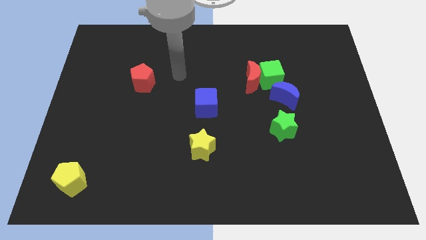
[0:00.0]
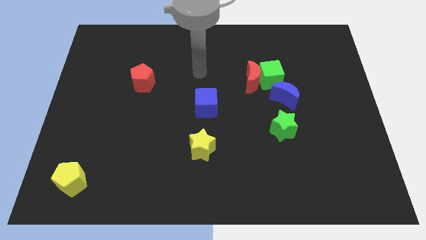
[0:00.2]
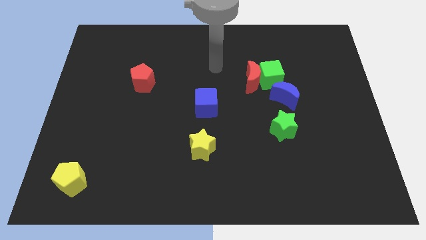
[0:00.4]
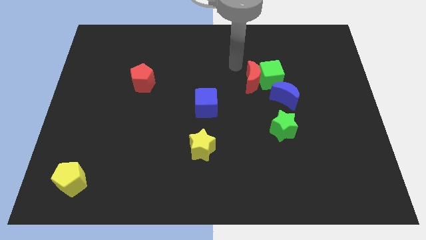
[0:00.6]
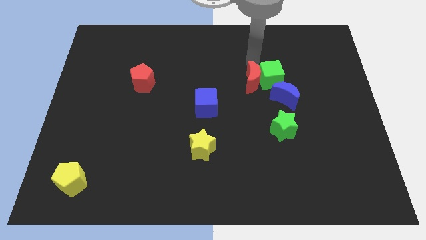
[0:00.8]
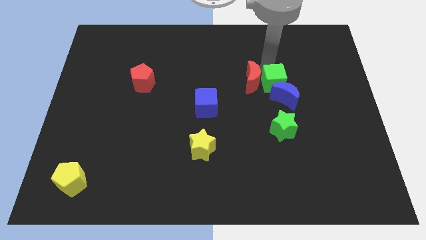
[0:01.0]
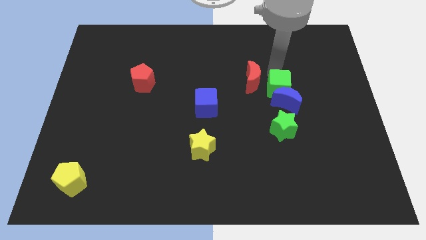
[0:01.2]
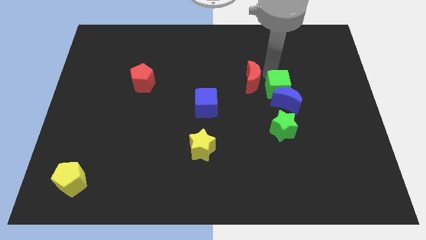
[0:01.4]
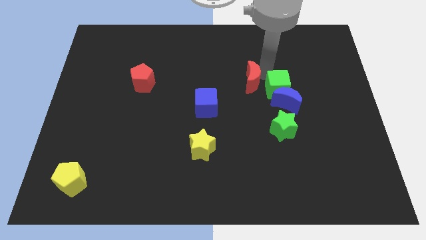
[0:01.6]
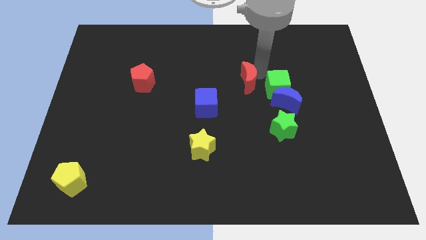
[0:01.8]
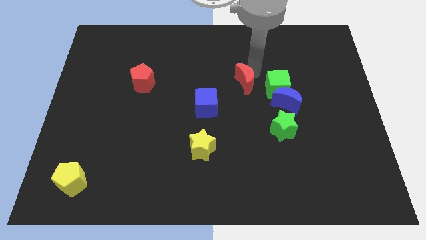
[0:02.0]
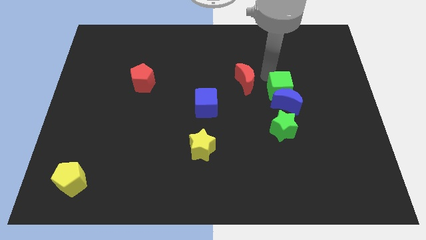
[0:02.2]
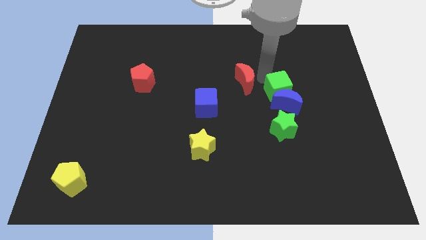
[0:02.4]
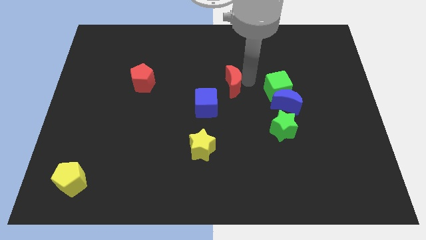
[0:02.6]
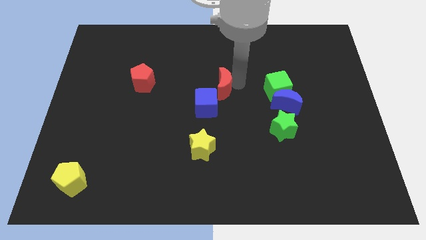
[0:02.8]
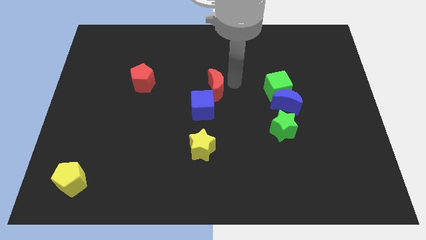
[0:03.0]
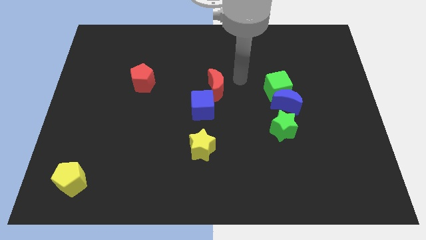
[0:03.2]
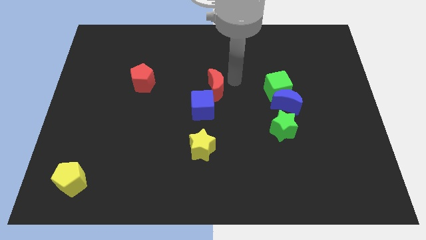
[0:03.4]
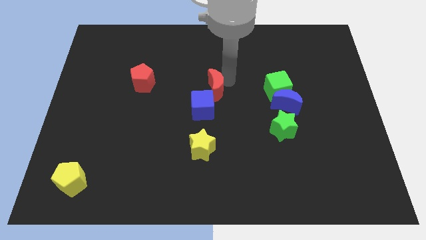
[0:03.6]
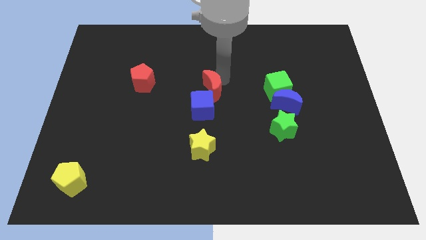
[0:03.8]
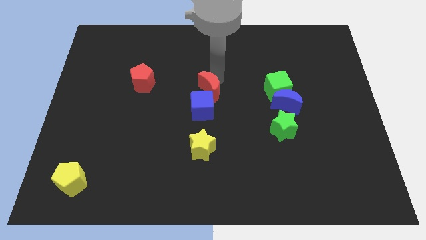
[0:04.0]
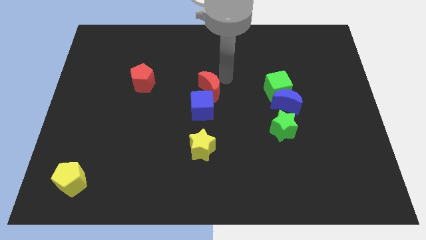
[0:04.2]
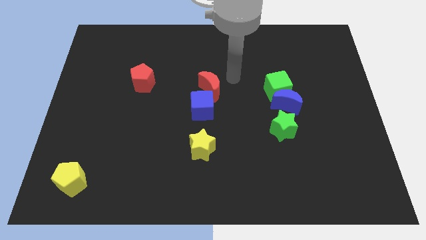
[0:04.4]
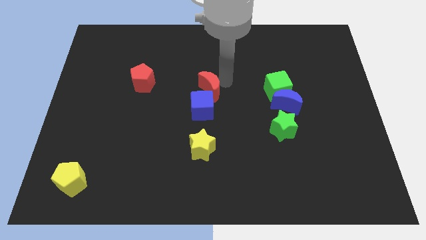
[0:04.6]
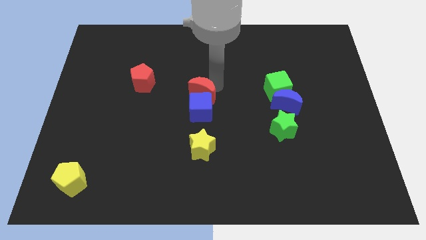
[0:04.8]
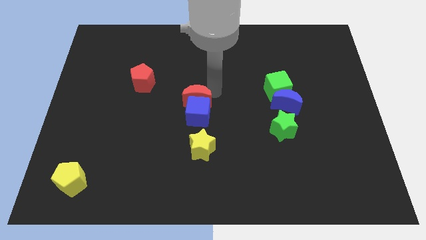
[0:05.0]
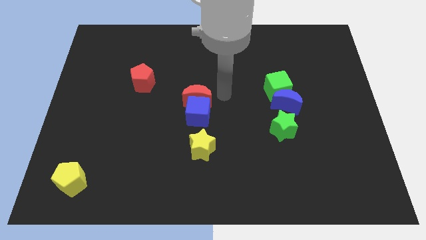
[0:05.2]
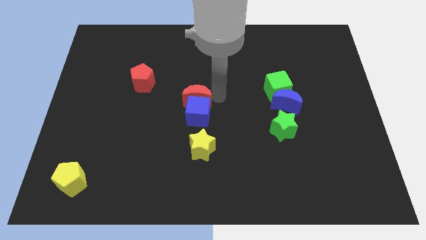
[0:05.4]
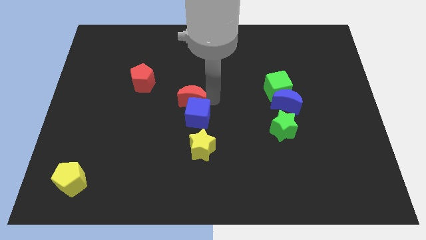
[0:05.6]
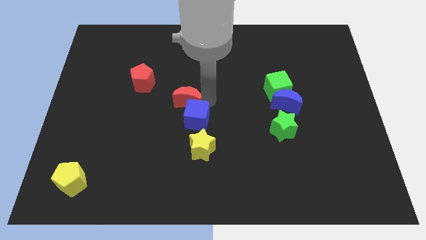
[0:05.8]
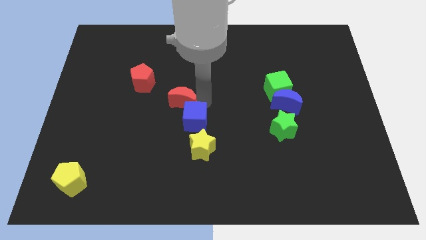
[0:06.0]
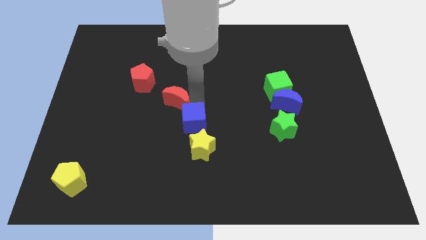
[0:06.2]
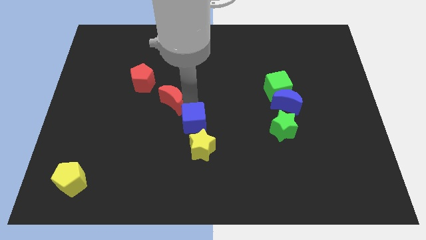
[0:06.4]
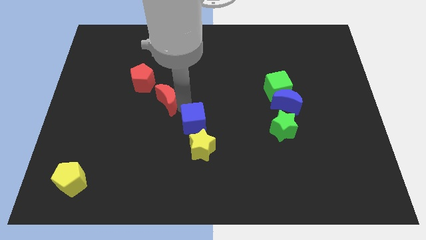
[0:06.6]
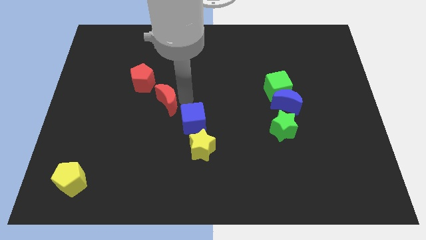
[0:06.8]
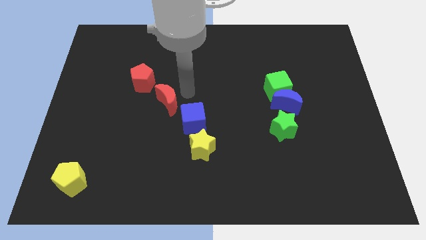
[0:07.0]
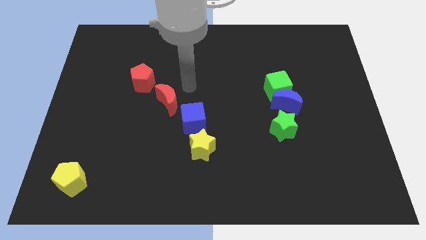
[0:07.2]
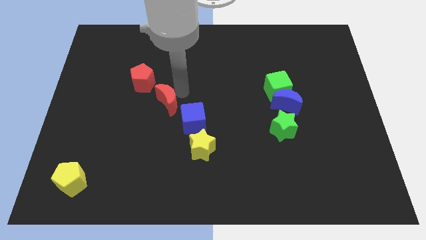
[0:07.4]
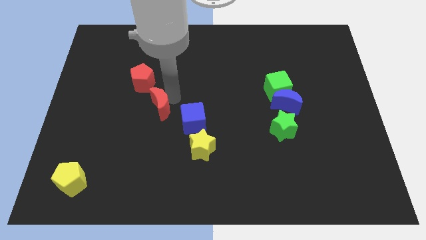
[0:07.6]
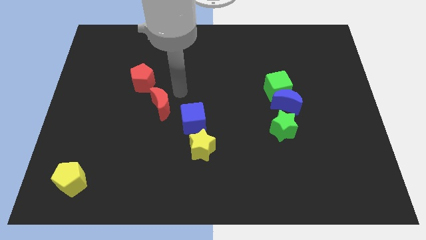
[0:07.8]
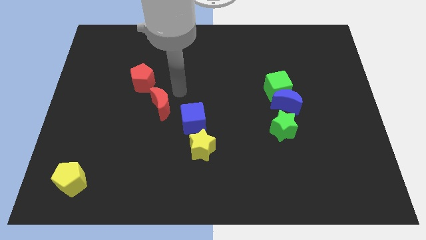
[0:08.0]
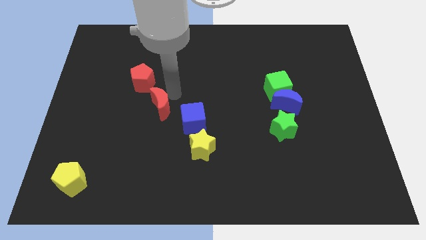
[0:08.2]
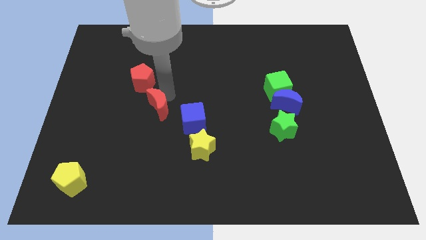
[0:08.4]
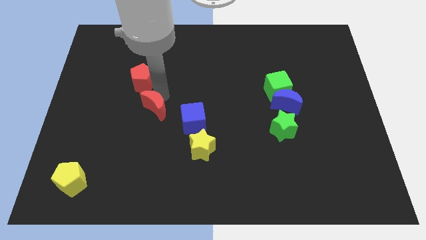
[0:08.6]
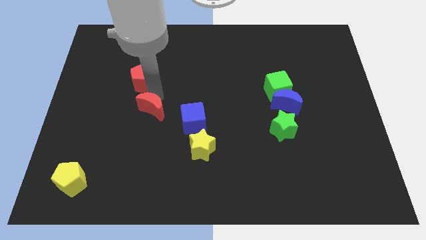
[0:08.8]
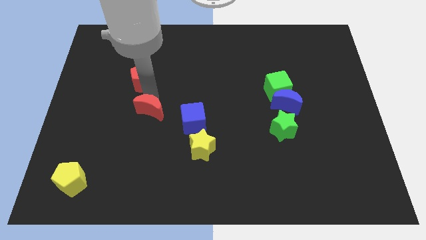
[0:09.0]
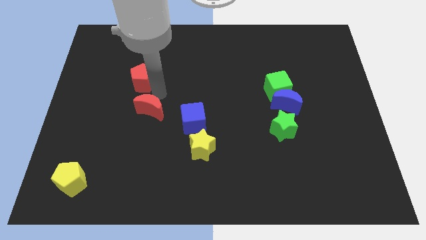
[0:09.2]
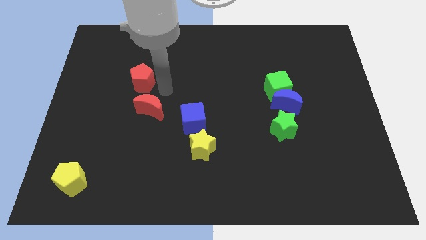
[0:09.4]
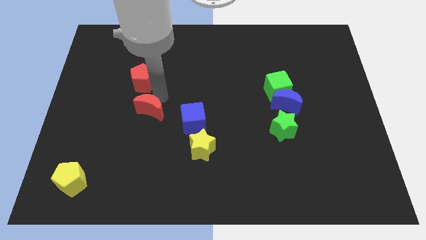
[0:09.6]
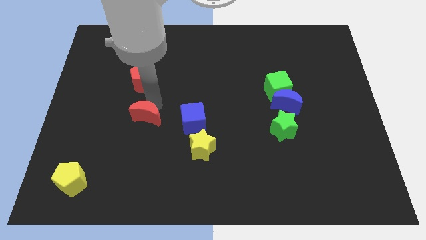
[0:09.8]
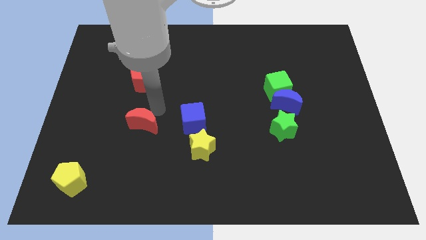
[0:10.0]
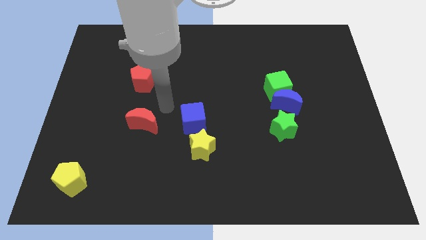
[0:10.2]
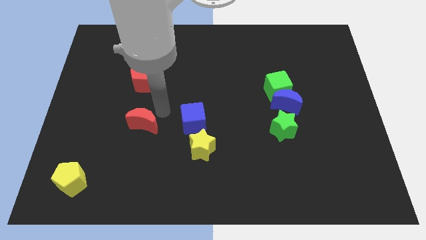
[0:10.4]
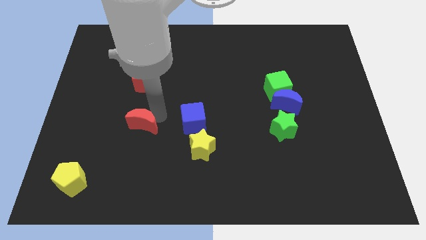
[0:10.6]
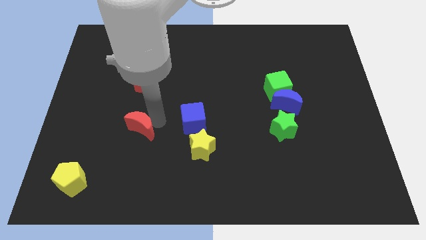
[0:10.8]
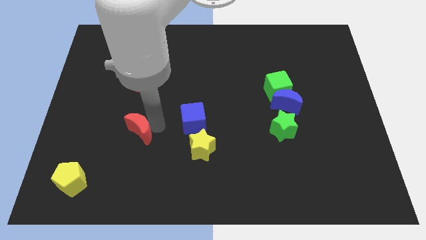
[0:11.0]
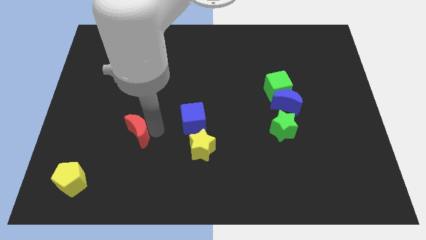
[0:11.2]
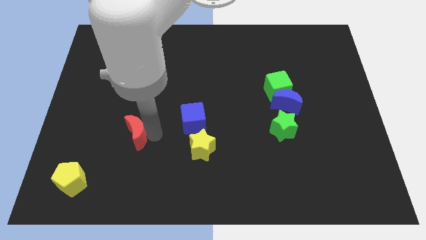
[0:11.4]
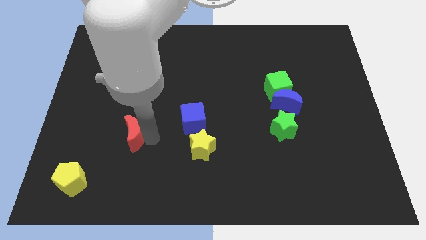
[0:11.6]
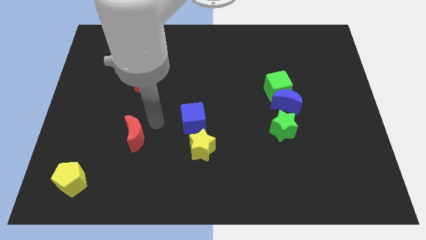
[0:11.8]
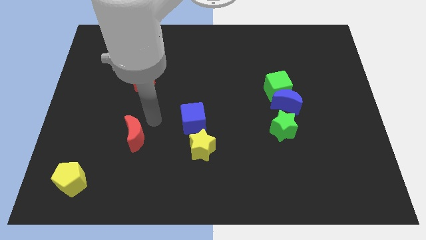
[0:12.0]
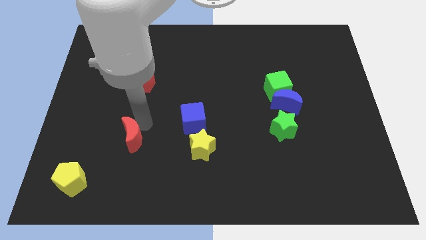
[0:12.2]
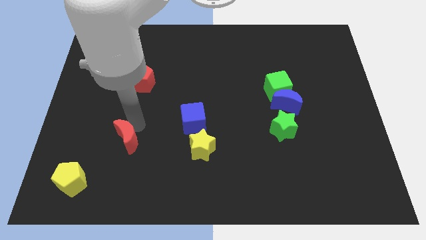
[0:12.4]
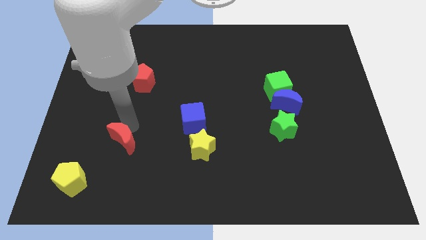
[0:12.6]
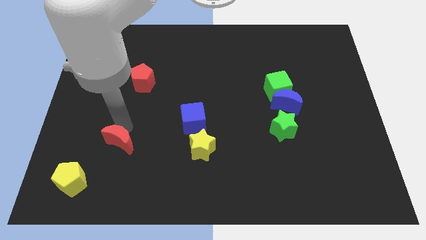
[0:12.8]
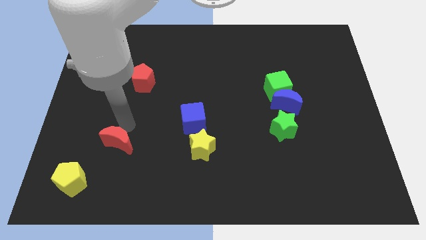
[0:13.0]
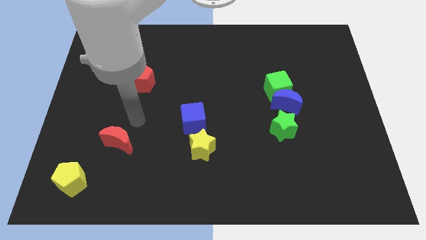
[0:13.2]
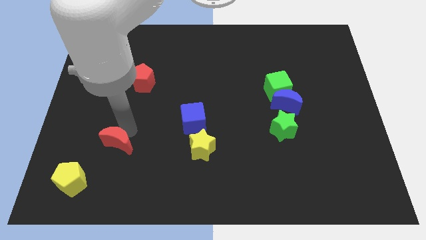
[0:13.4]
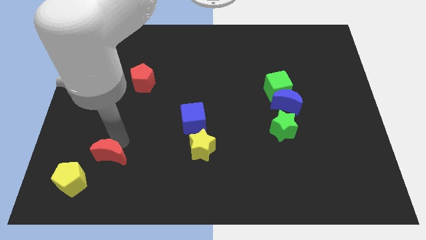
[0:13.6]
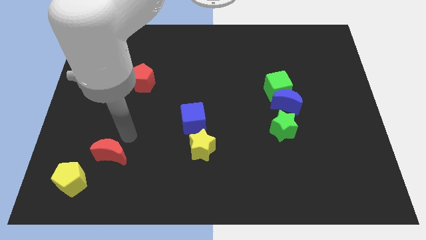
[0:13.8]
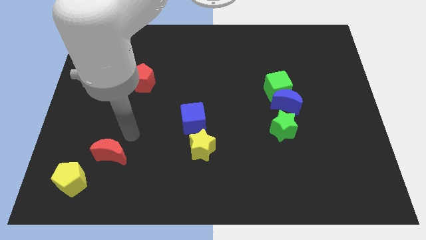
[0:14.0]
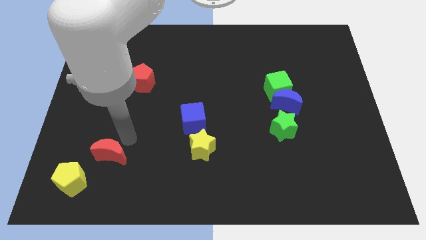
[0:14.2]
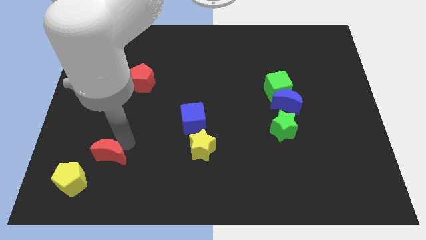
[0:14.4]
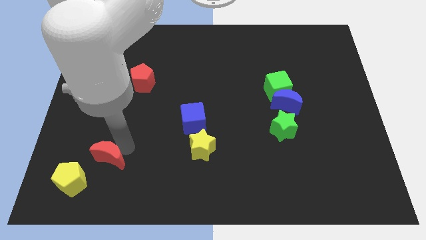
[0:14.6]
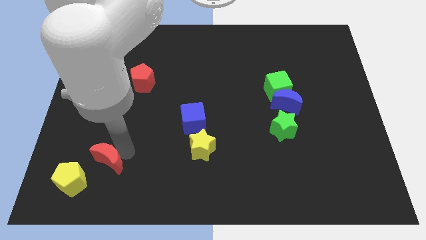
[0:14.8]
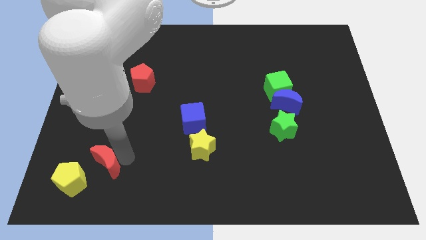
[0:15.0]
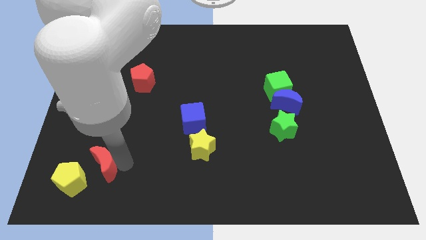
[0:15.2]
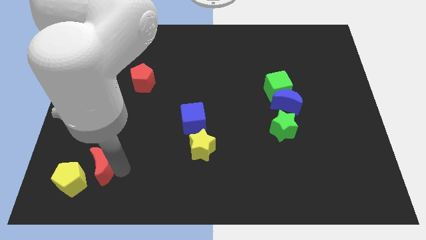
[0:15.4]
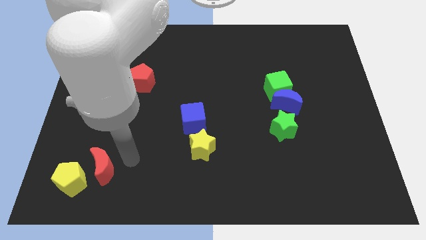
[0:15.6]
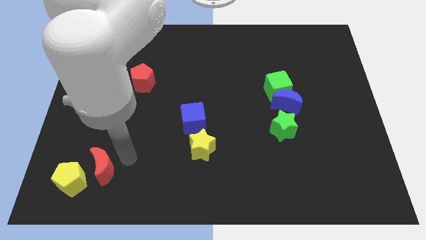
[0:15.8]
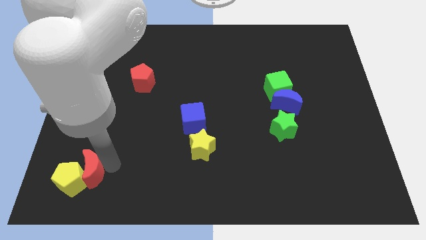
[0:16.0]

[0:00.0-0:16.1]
push the red moon to the yellow pentagon
